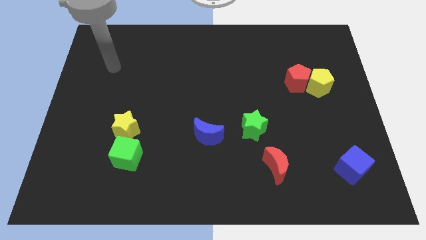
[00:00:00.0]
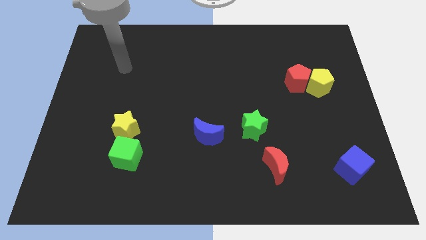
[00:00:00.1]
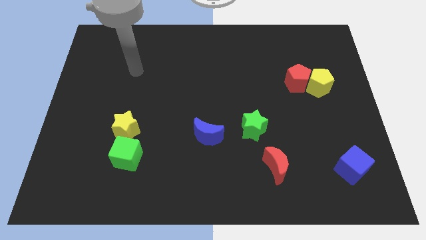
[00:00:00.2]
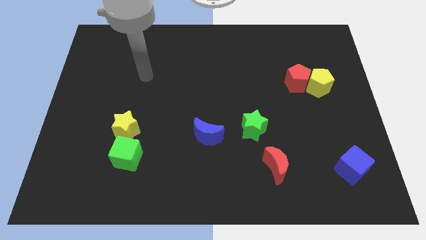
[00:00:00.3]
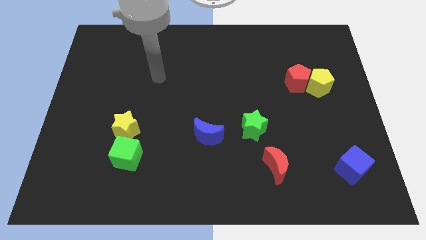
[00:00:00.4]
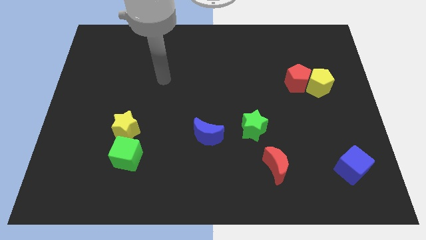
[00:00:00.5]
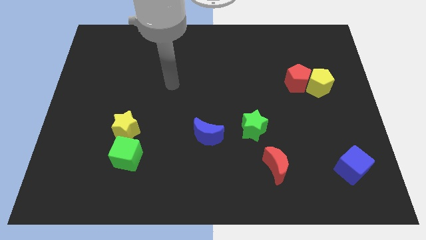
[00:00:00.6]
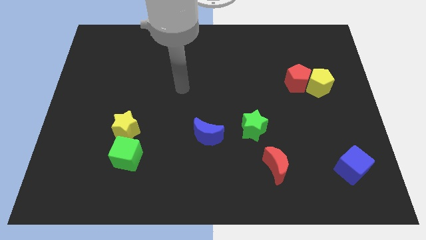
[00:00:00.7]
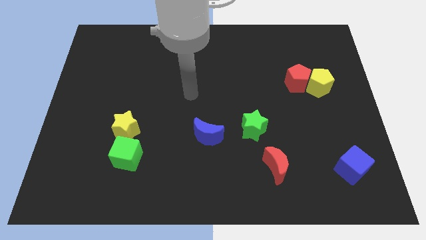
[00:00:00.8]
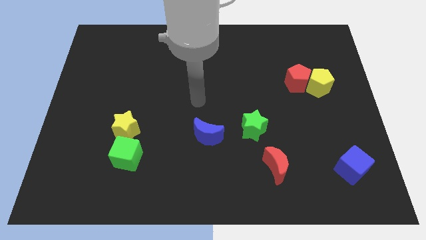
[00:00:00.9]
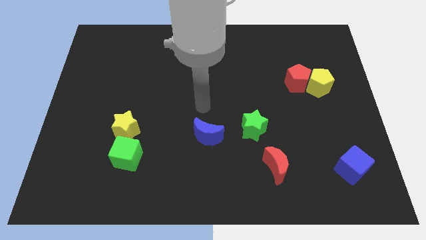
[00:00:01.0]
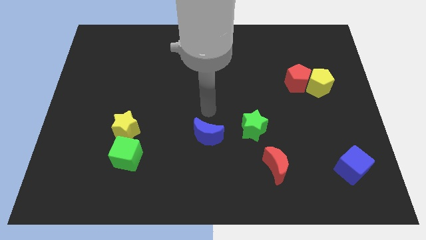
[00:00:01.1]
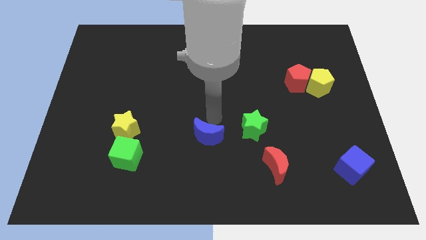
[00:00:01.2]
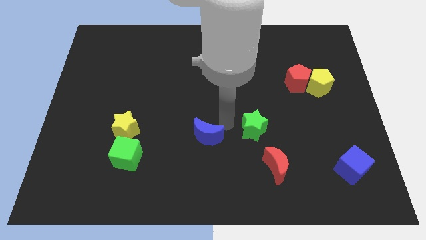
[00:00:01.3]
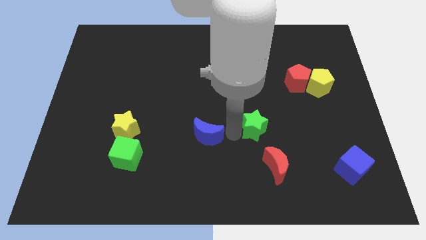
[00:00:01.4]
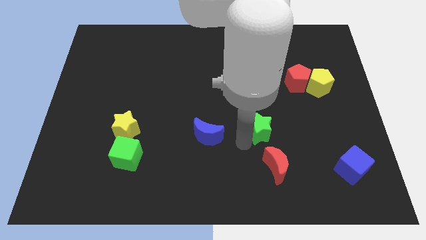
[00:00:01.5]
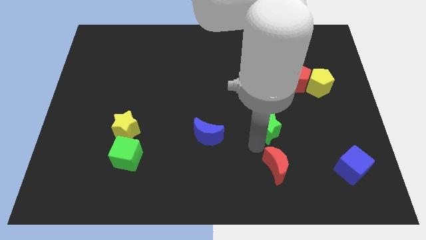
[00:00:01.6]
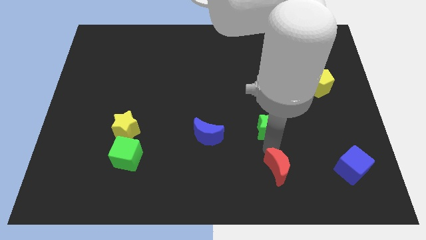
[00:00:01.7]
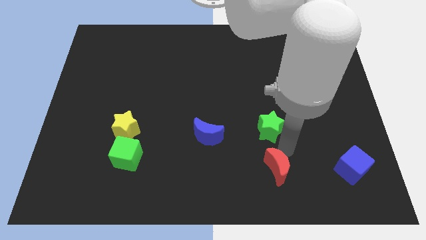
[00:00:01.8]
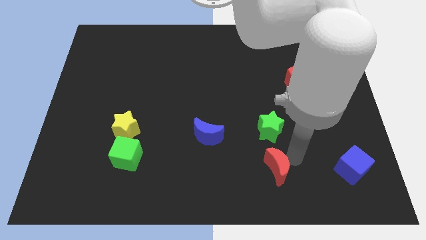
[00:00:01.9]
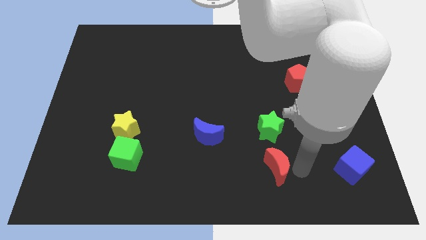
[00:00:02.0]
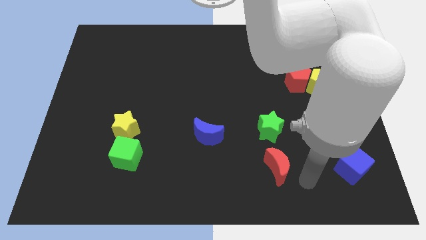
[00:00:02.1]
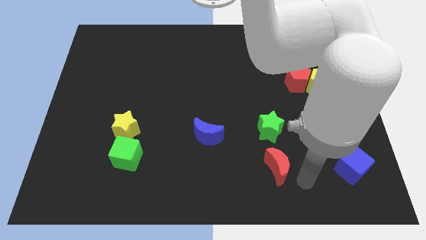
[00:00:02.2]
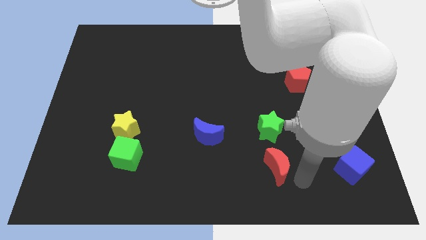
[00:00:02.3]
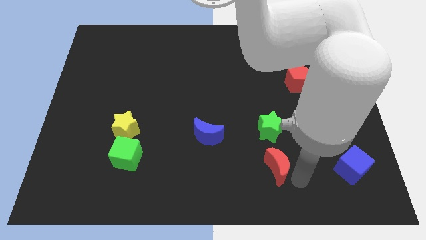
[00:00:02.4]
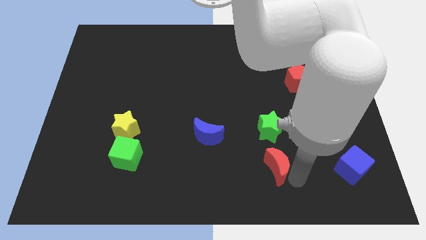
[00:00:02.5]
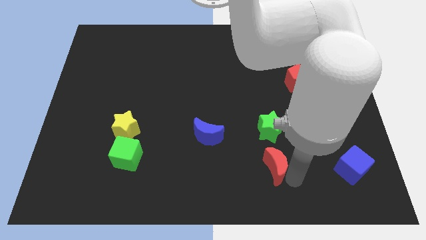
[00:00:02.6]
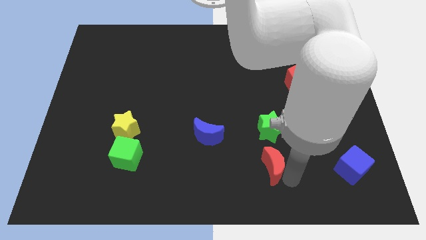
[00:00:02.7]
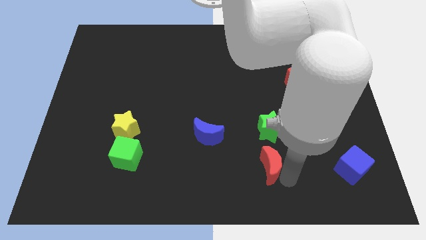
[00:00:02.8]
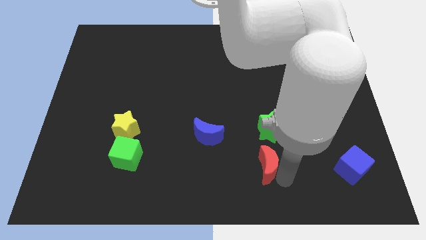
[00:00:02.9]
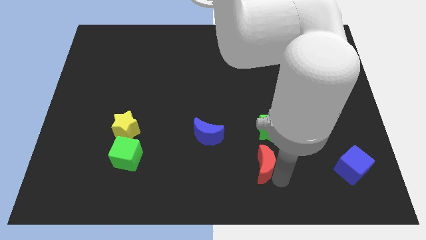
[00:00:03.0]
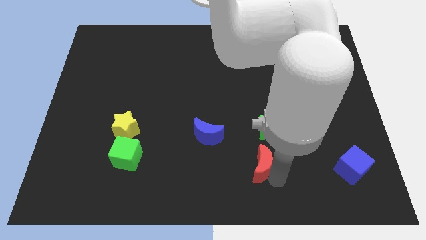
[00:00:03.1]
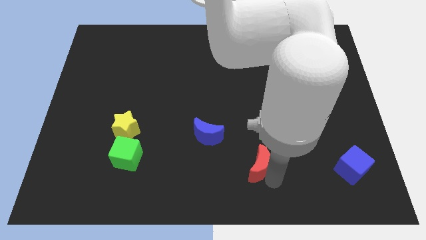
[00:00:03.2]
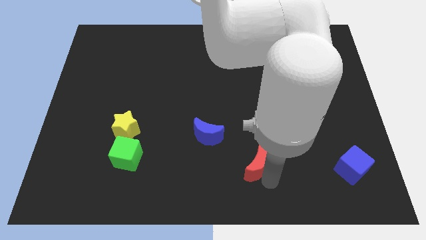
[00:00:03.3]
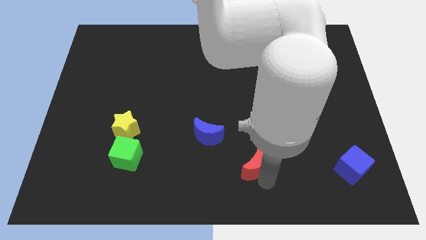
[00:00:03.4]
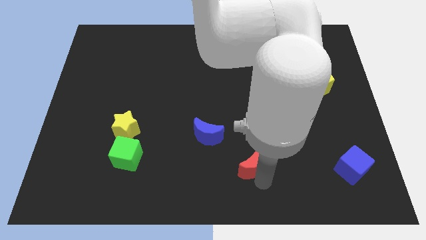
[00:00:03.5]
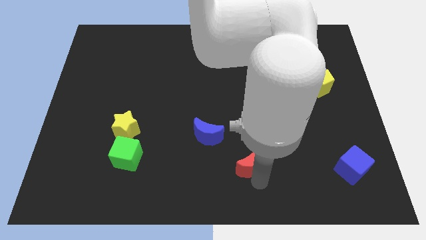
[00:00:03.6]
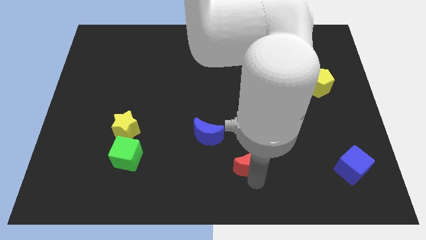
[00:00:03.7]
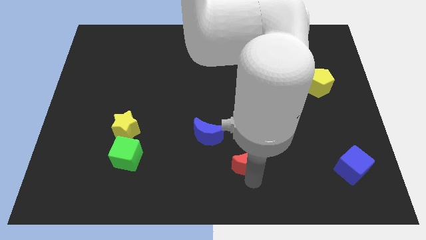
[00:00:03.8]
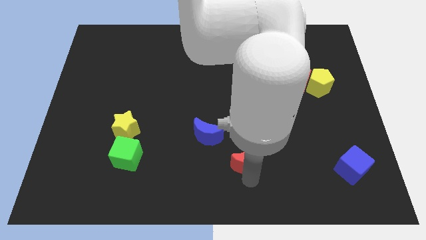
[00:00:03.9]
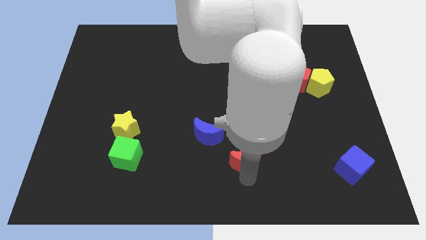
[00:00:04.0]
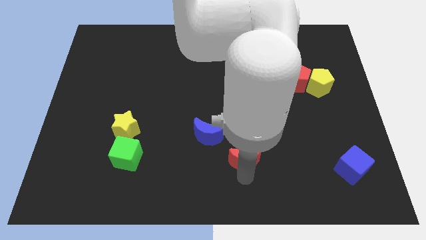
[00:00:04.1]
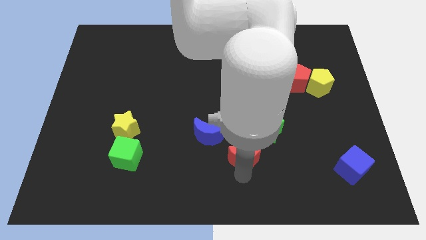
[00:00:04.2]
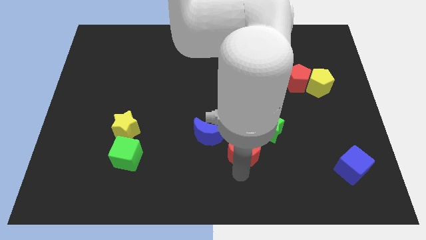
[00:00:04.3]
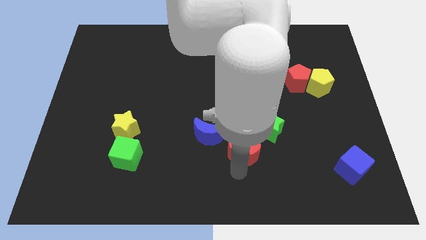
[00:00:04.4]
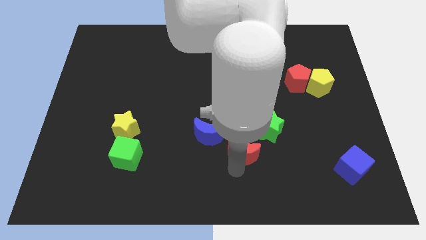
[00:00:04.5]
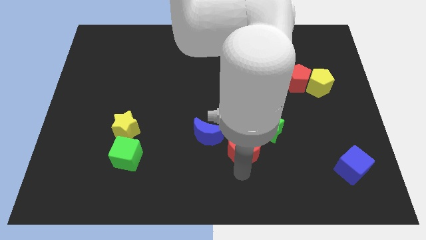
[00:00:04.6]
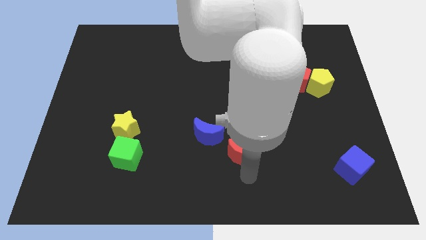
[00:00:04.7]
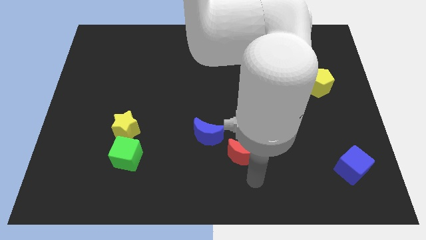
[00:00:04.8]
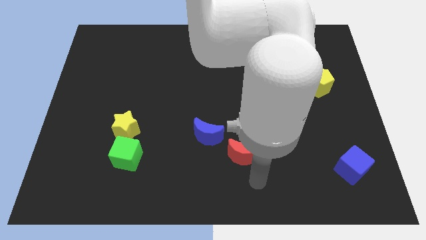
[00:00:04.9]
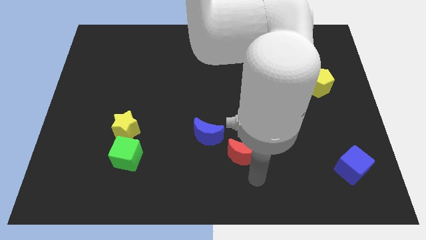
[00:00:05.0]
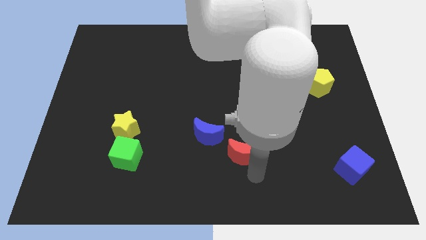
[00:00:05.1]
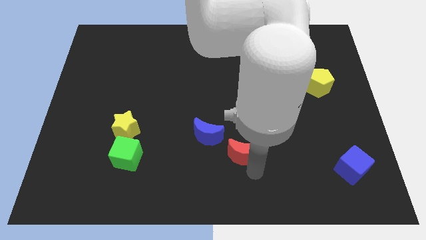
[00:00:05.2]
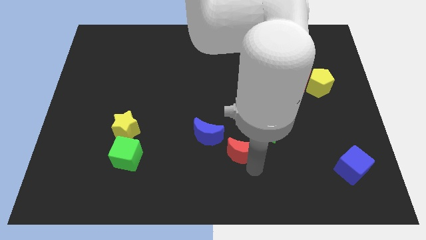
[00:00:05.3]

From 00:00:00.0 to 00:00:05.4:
move the red moon up and left a little

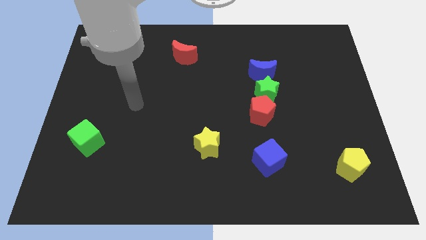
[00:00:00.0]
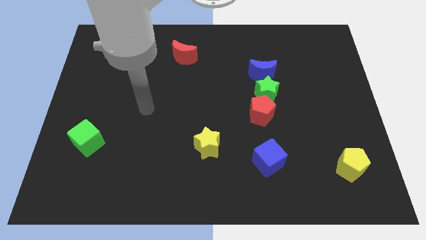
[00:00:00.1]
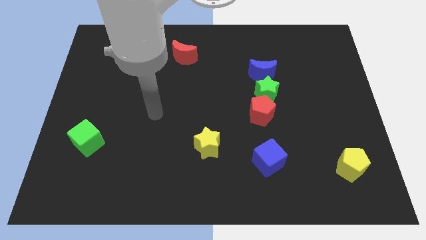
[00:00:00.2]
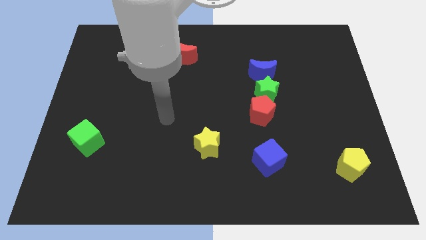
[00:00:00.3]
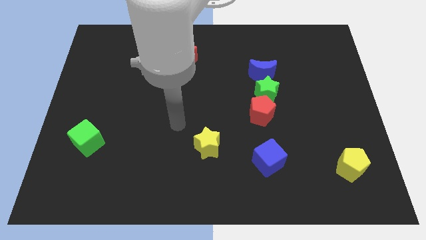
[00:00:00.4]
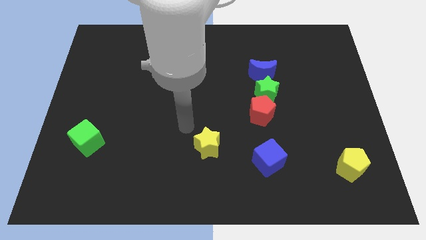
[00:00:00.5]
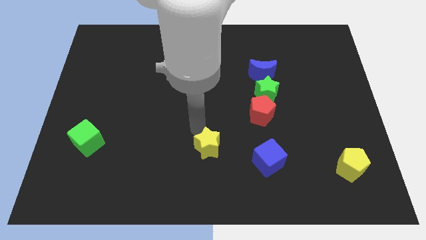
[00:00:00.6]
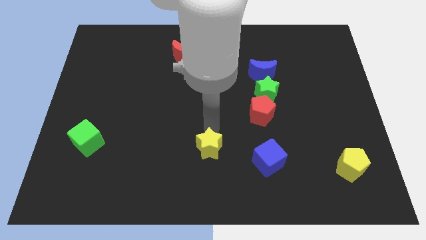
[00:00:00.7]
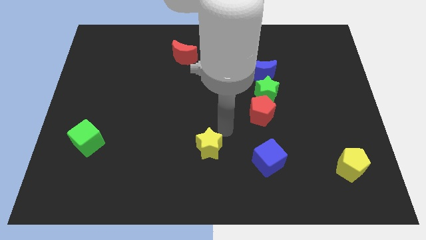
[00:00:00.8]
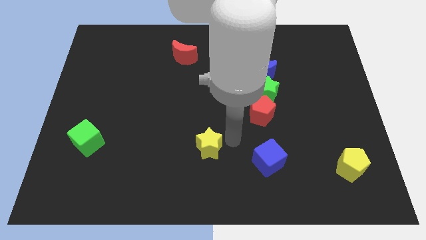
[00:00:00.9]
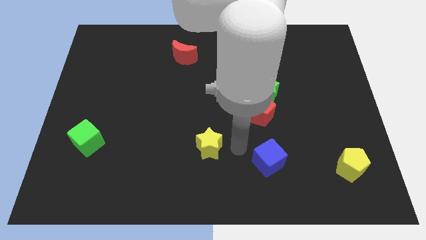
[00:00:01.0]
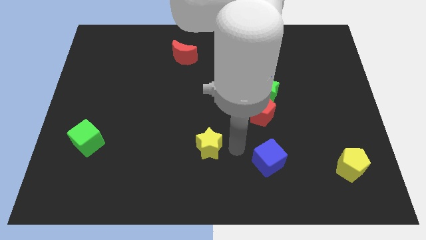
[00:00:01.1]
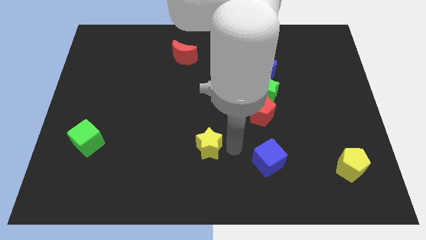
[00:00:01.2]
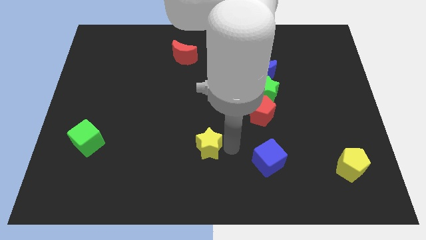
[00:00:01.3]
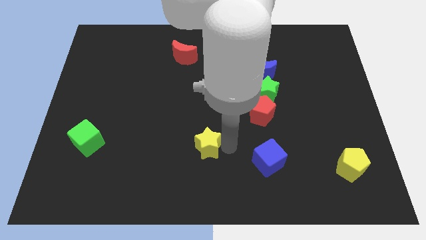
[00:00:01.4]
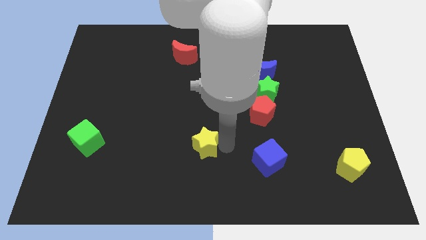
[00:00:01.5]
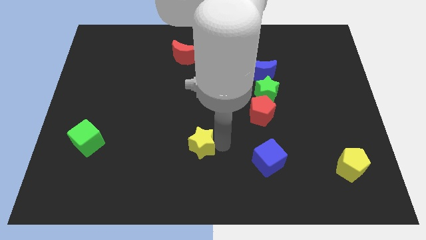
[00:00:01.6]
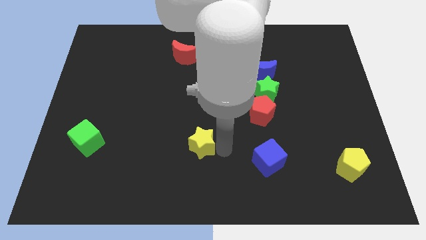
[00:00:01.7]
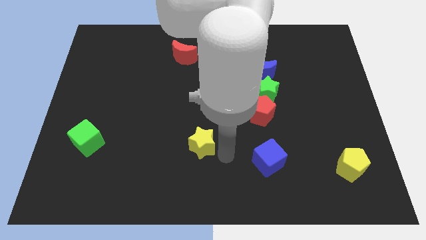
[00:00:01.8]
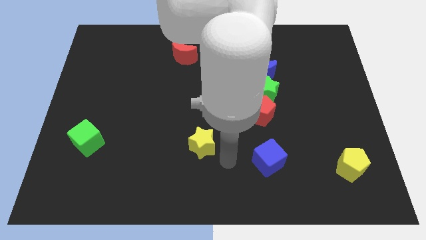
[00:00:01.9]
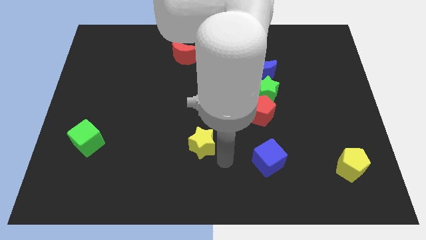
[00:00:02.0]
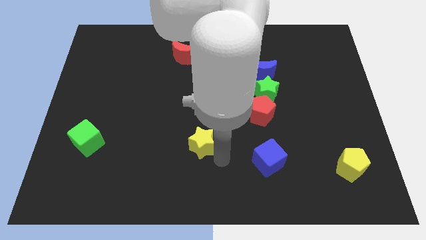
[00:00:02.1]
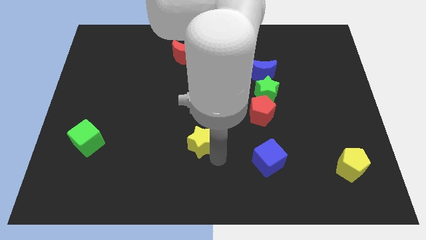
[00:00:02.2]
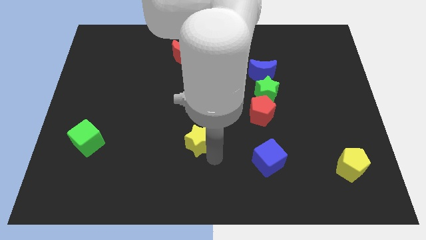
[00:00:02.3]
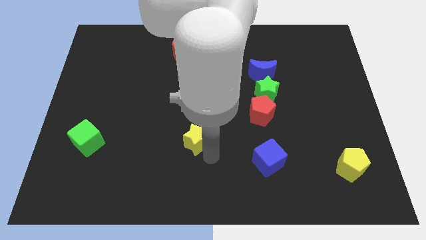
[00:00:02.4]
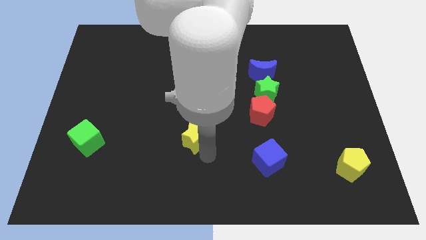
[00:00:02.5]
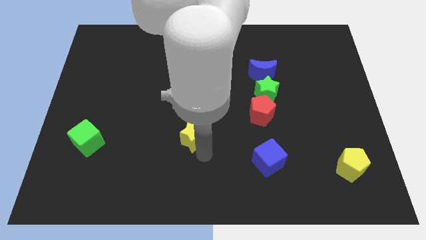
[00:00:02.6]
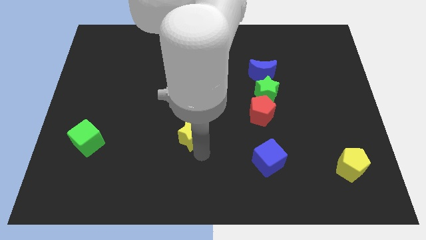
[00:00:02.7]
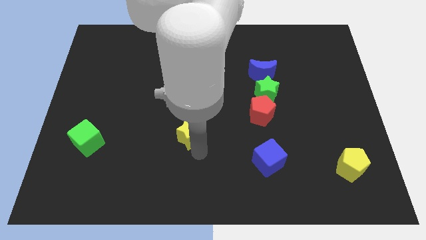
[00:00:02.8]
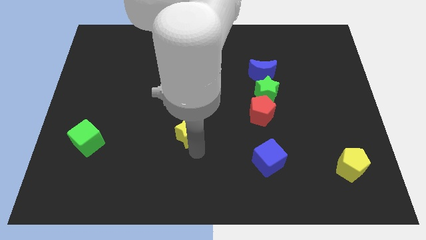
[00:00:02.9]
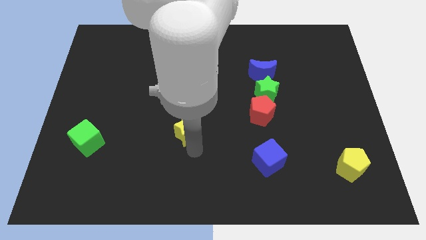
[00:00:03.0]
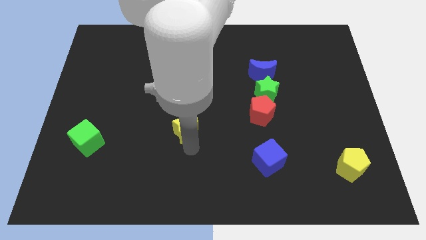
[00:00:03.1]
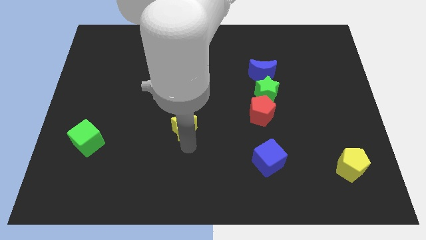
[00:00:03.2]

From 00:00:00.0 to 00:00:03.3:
move the yellow star a bit diagonally upwards and to the left
